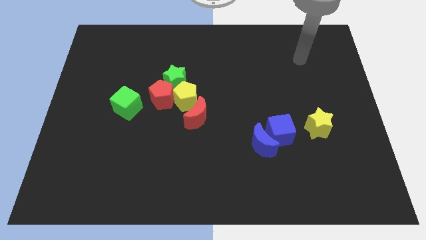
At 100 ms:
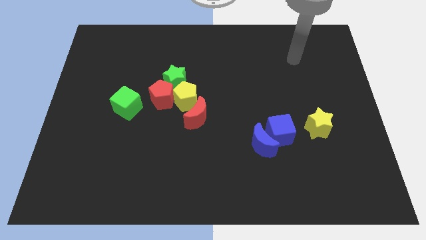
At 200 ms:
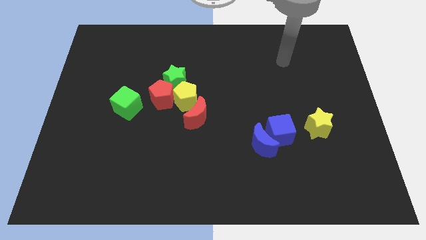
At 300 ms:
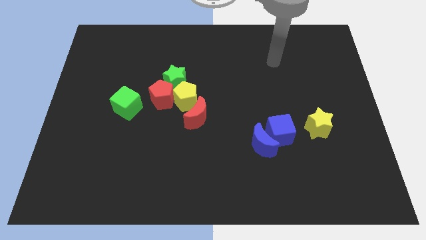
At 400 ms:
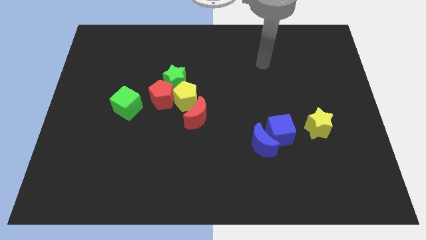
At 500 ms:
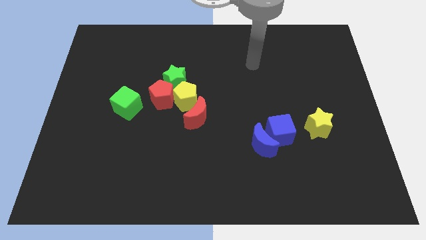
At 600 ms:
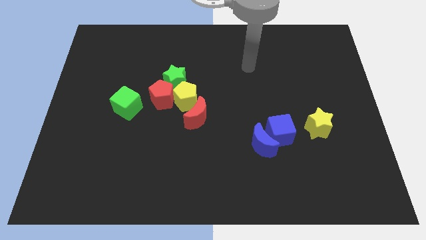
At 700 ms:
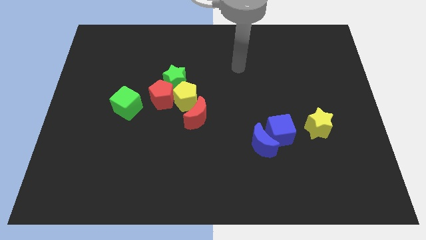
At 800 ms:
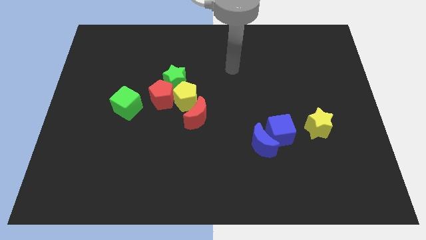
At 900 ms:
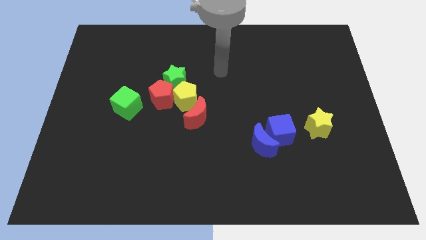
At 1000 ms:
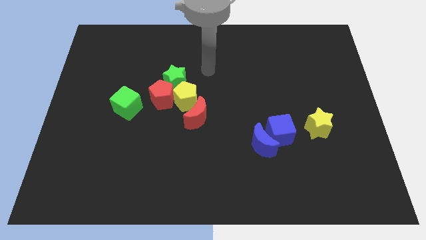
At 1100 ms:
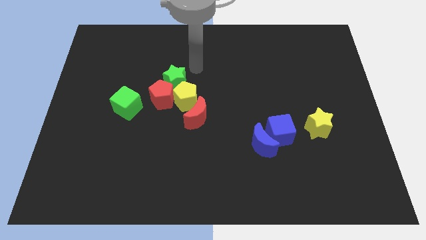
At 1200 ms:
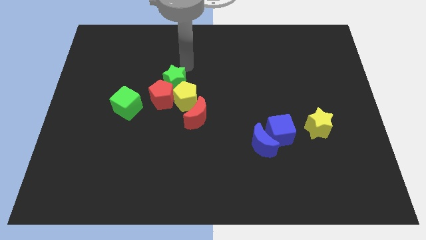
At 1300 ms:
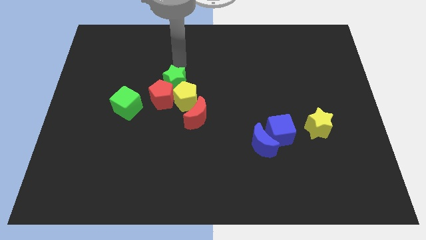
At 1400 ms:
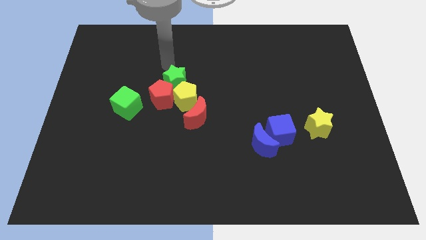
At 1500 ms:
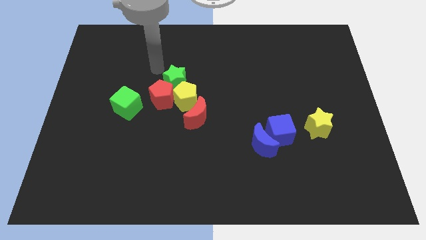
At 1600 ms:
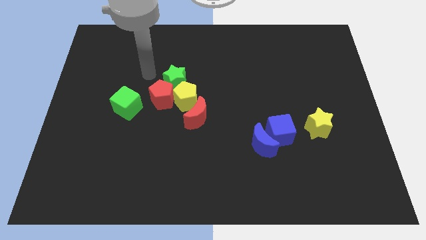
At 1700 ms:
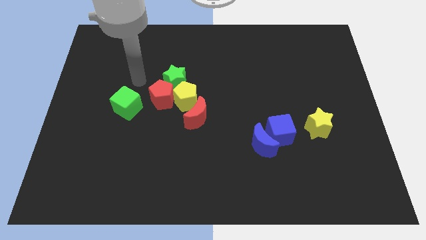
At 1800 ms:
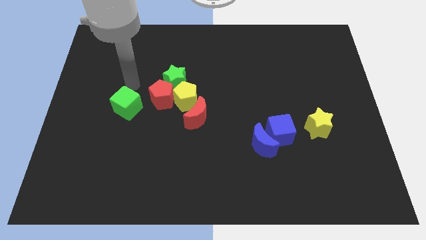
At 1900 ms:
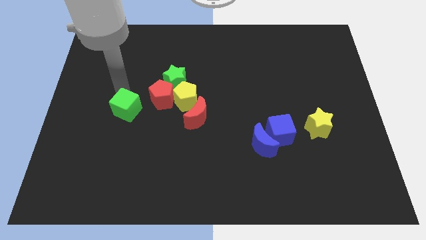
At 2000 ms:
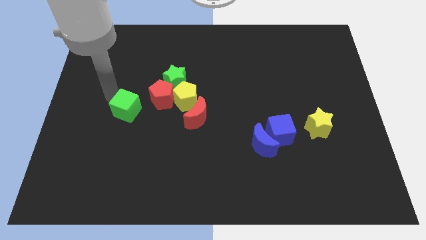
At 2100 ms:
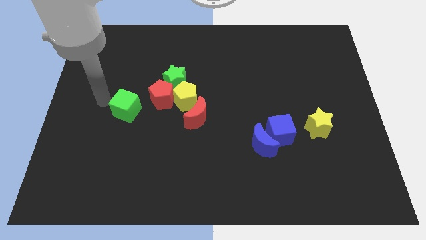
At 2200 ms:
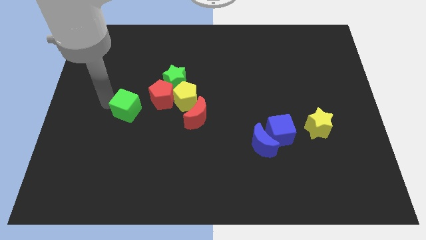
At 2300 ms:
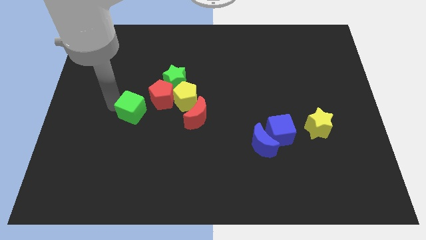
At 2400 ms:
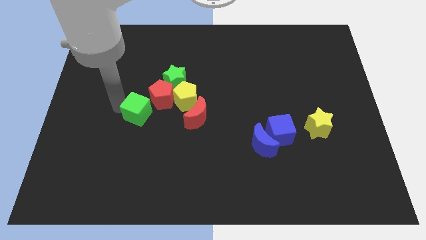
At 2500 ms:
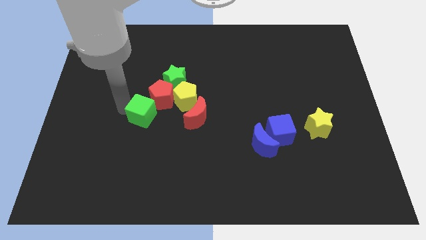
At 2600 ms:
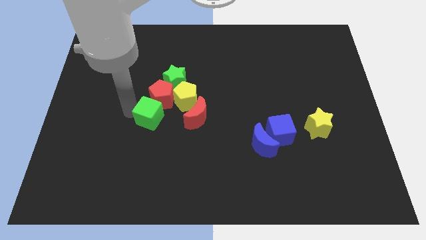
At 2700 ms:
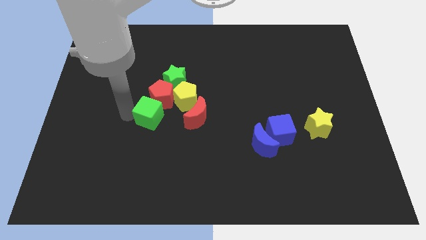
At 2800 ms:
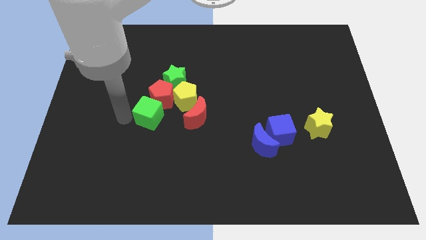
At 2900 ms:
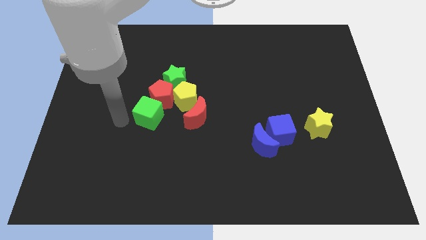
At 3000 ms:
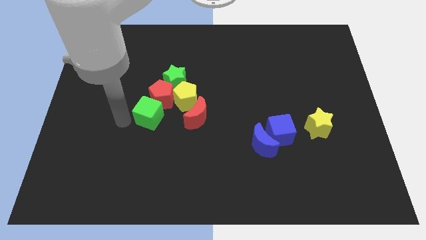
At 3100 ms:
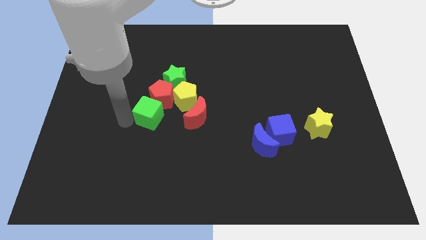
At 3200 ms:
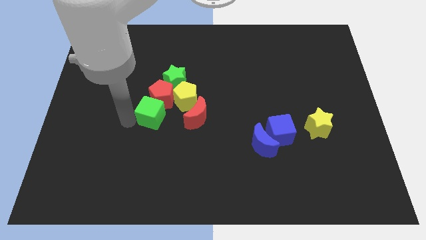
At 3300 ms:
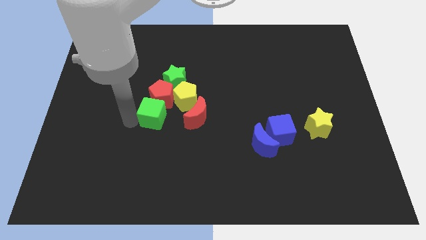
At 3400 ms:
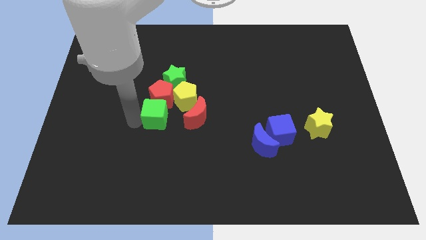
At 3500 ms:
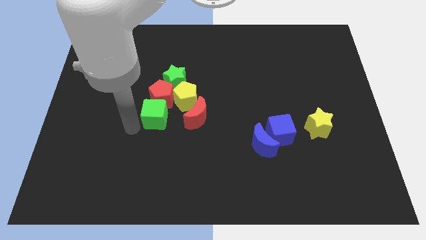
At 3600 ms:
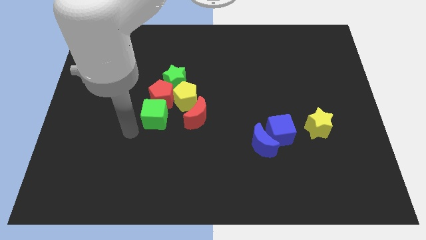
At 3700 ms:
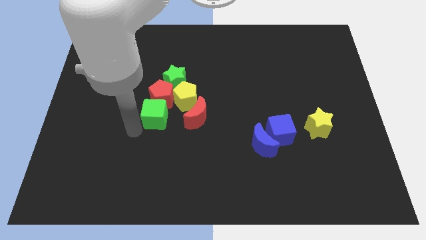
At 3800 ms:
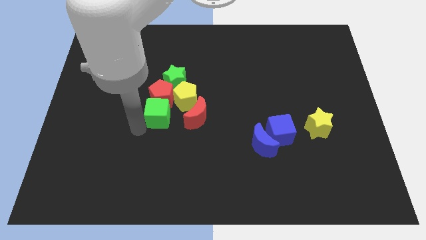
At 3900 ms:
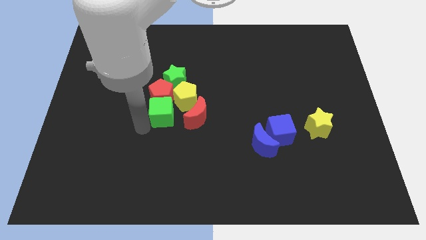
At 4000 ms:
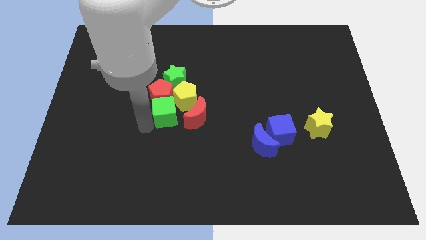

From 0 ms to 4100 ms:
move the green cube close to the yellow pentagon

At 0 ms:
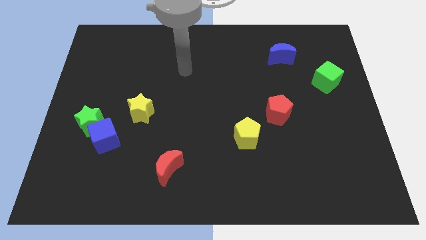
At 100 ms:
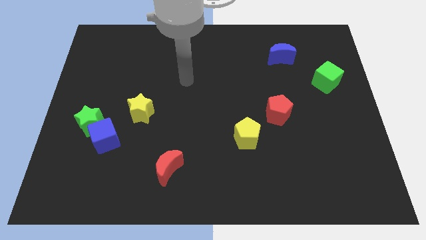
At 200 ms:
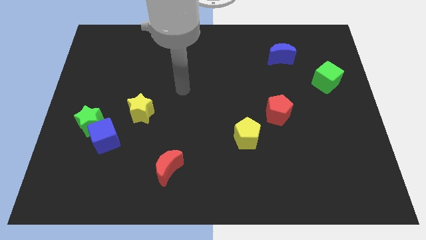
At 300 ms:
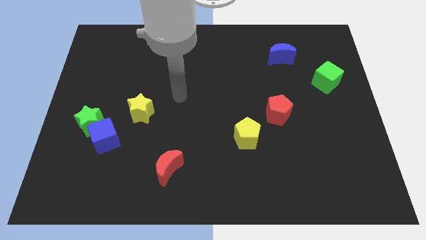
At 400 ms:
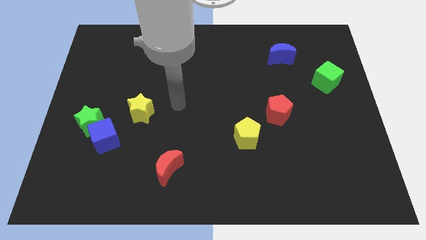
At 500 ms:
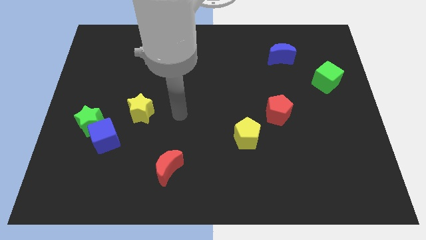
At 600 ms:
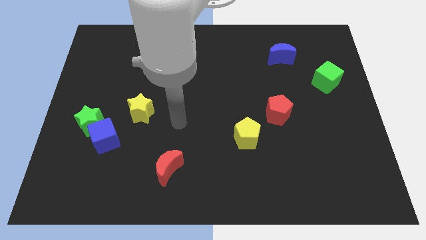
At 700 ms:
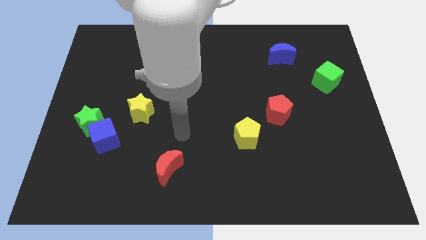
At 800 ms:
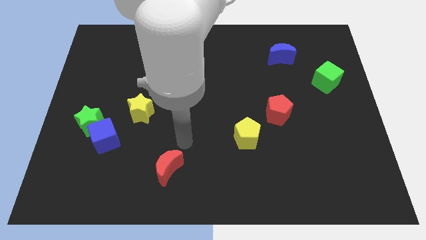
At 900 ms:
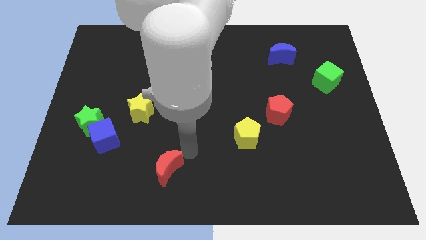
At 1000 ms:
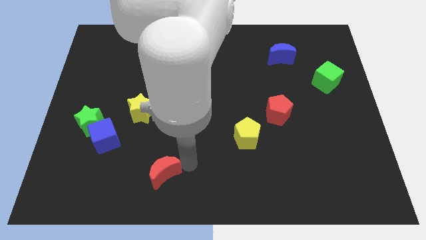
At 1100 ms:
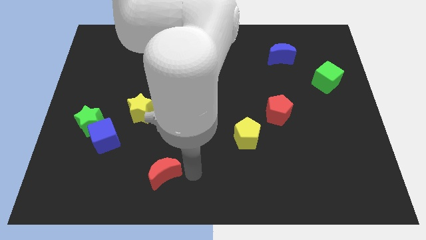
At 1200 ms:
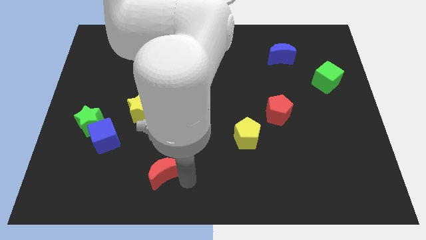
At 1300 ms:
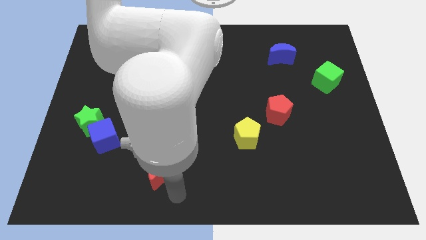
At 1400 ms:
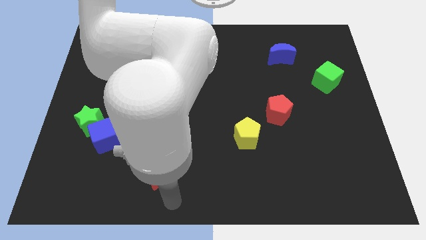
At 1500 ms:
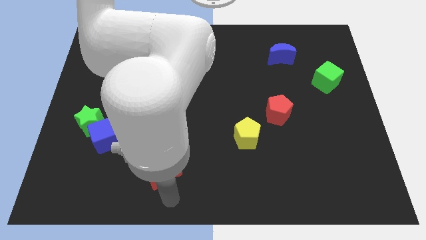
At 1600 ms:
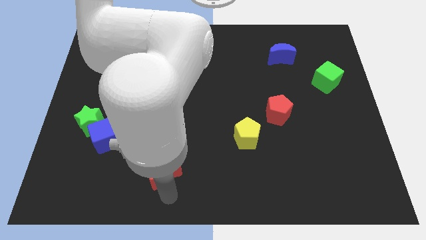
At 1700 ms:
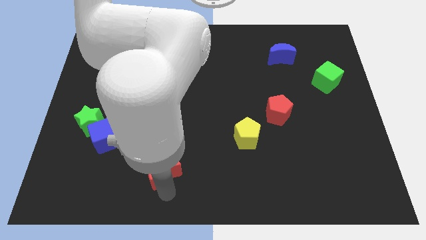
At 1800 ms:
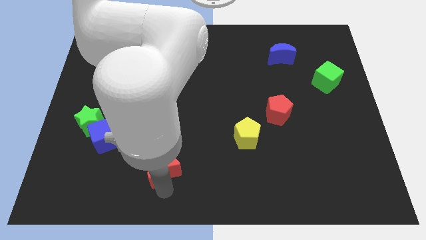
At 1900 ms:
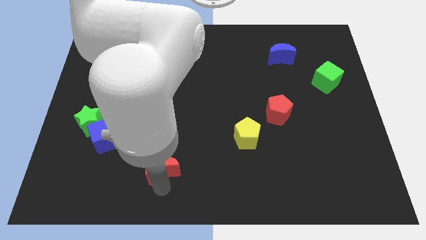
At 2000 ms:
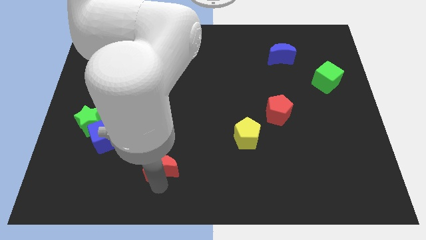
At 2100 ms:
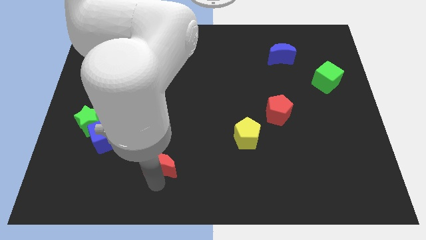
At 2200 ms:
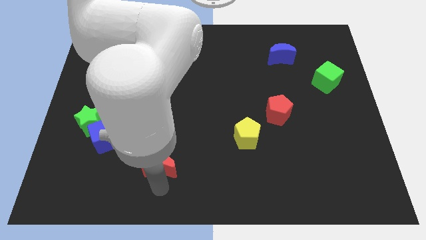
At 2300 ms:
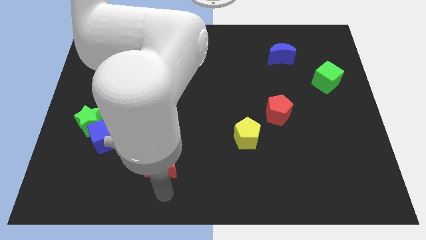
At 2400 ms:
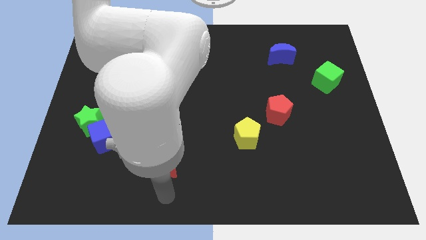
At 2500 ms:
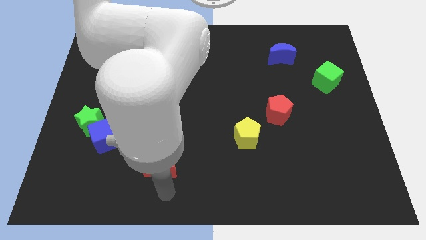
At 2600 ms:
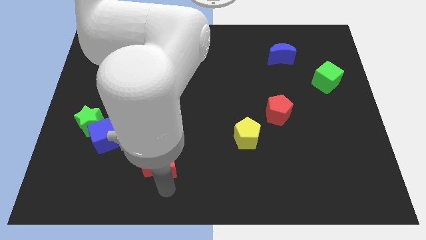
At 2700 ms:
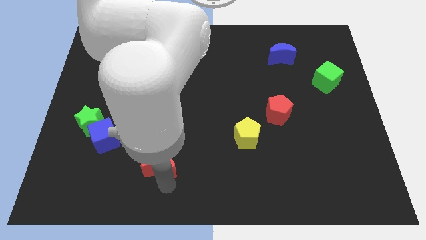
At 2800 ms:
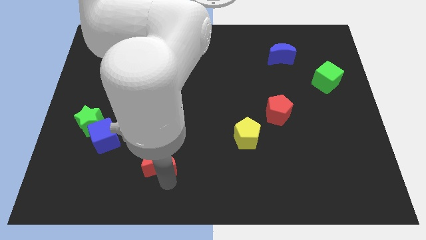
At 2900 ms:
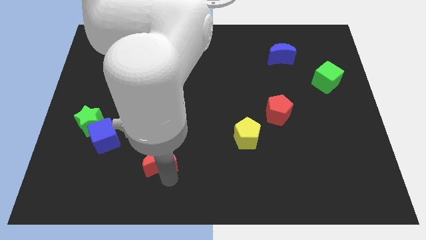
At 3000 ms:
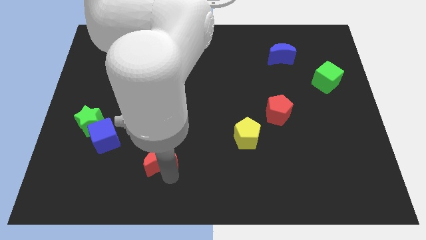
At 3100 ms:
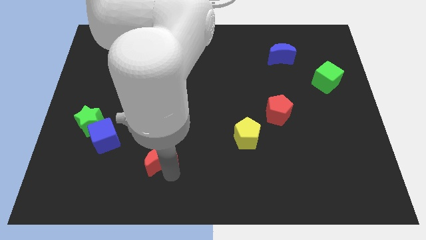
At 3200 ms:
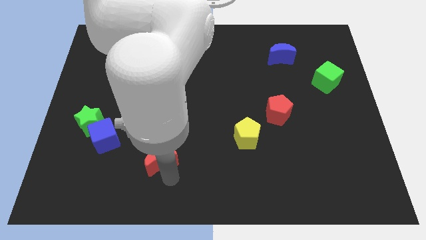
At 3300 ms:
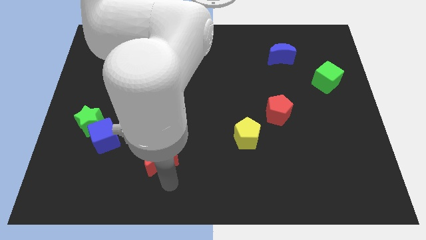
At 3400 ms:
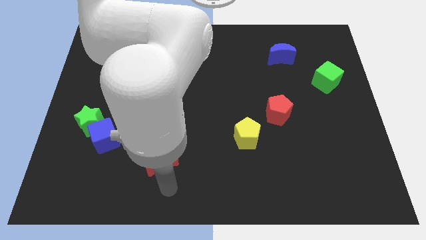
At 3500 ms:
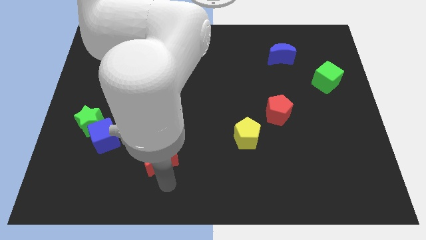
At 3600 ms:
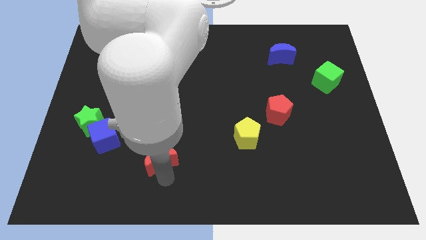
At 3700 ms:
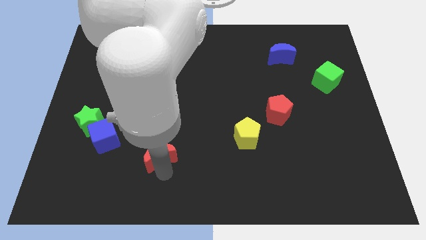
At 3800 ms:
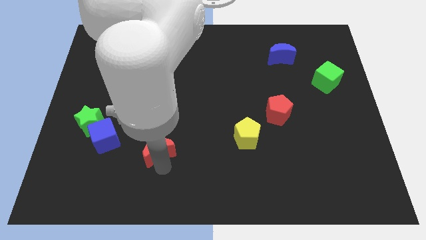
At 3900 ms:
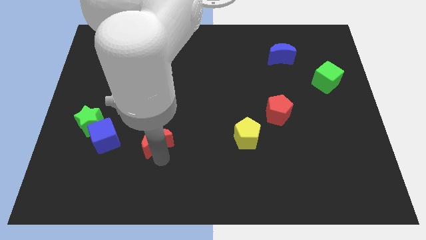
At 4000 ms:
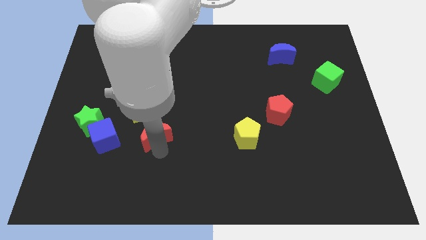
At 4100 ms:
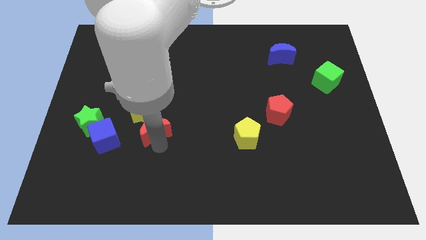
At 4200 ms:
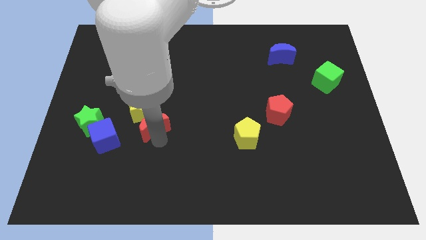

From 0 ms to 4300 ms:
move the red moon to the yellow star

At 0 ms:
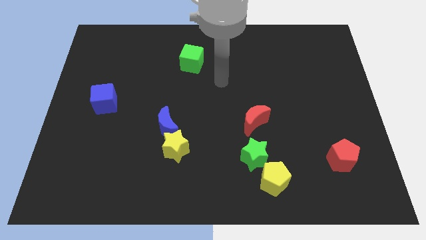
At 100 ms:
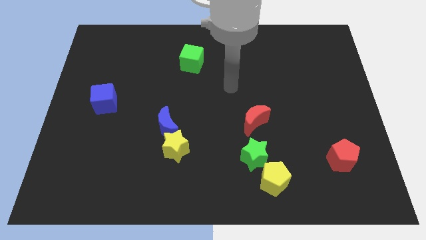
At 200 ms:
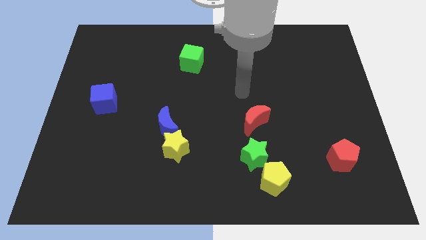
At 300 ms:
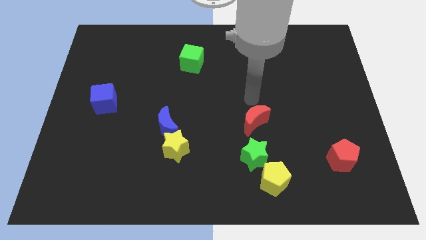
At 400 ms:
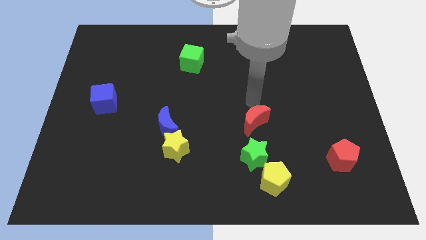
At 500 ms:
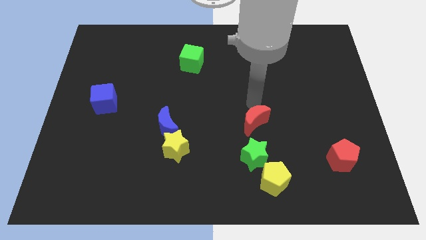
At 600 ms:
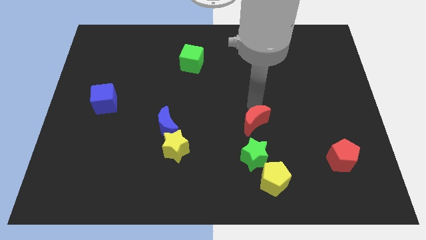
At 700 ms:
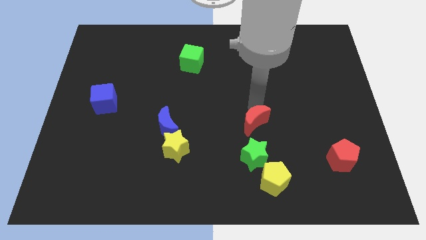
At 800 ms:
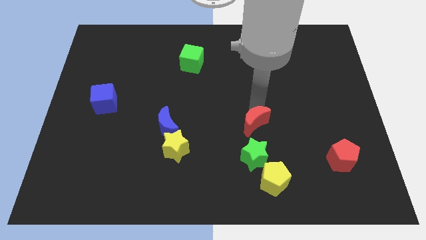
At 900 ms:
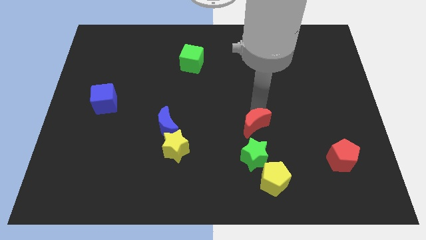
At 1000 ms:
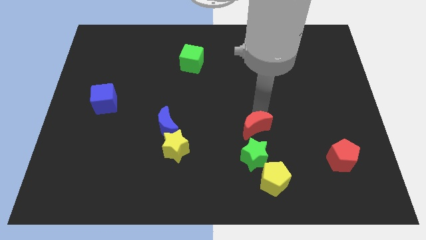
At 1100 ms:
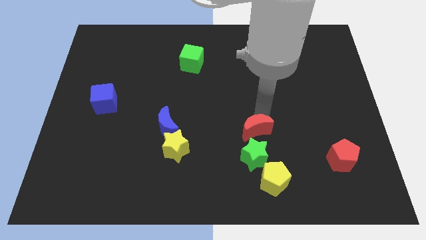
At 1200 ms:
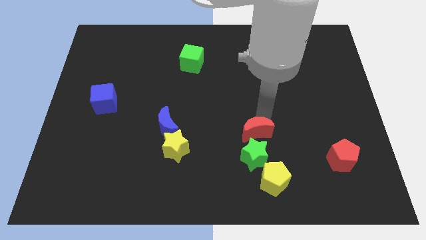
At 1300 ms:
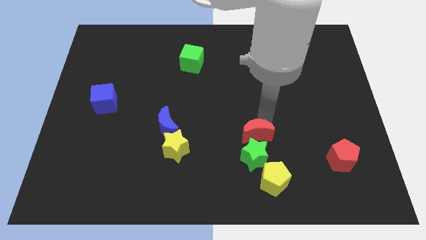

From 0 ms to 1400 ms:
put the red moon to the green star
